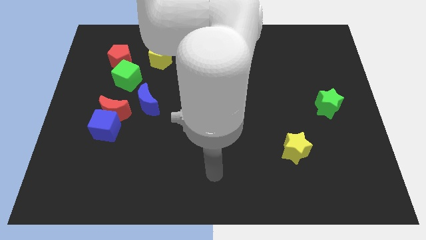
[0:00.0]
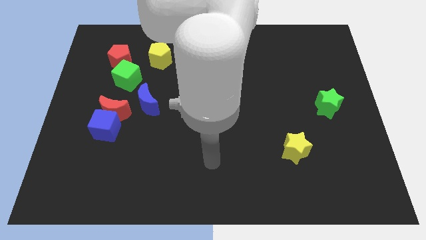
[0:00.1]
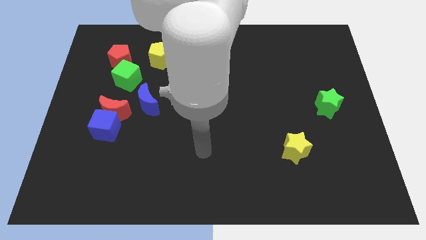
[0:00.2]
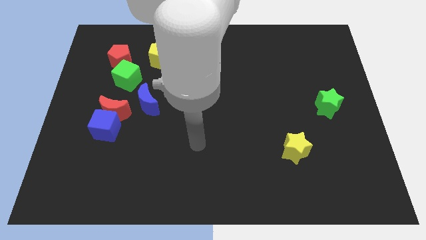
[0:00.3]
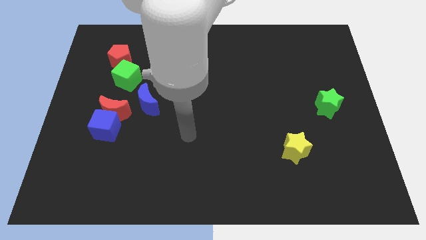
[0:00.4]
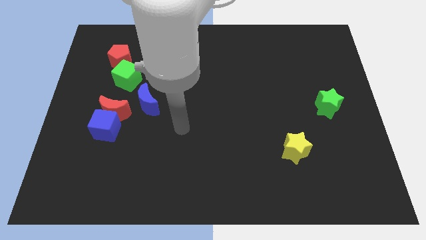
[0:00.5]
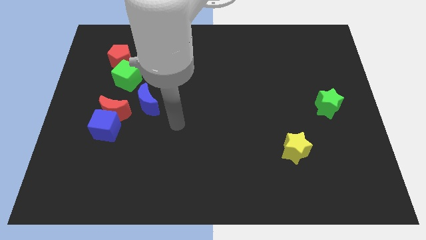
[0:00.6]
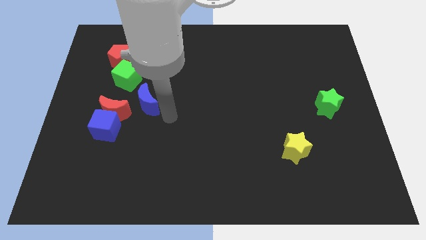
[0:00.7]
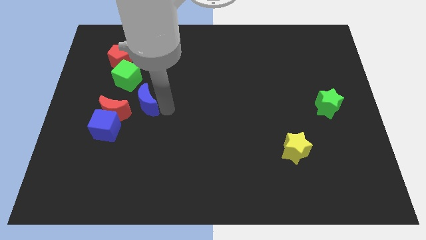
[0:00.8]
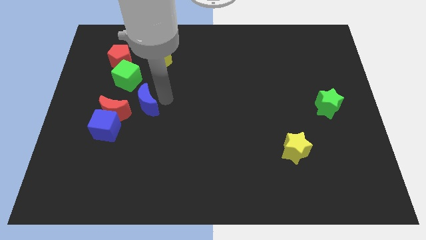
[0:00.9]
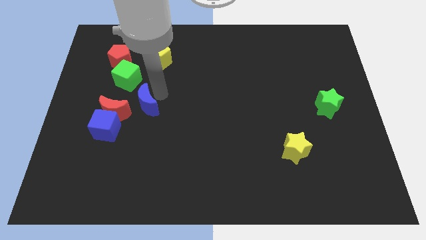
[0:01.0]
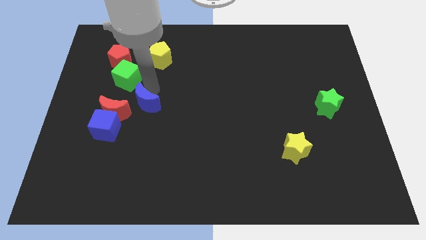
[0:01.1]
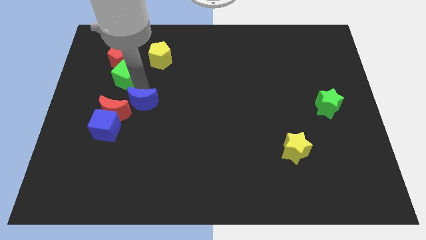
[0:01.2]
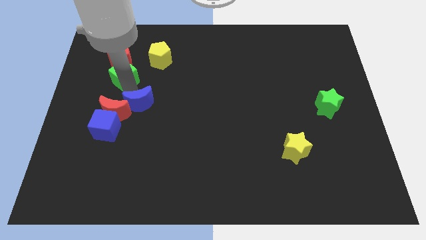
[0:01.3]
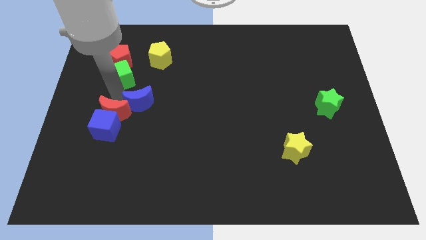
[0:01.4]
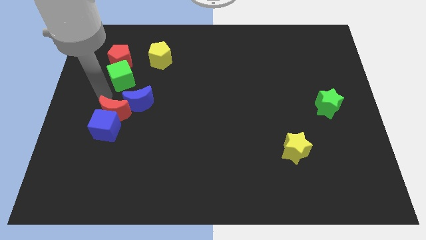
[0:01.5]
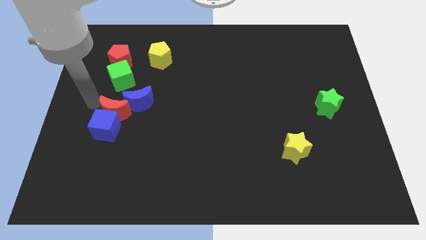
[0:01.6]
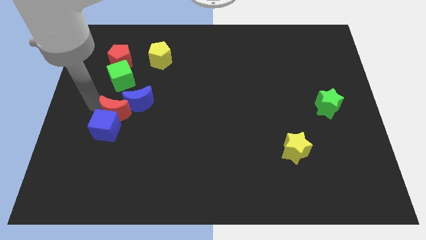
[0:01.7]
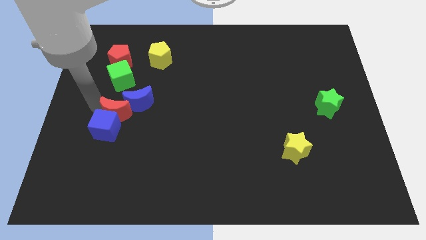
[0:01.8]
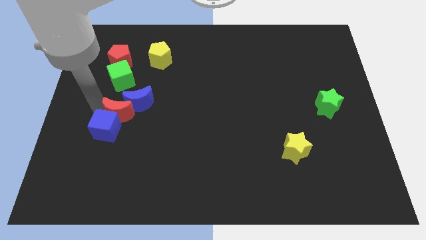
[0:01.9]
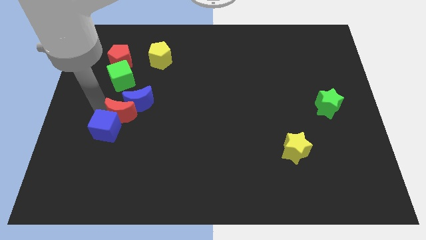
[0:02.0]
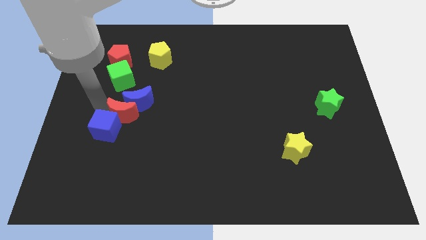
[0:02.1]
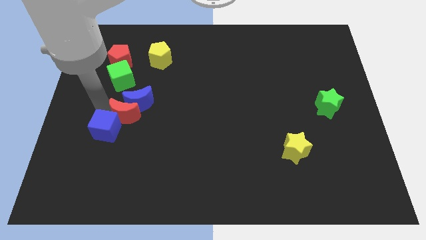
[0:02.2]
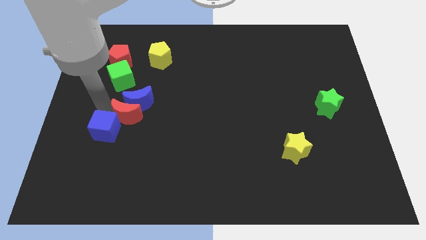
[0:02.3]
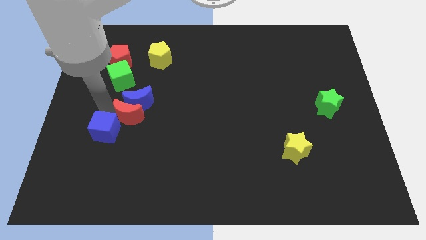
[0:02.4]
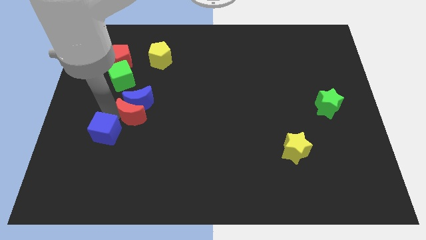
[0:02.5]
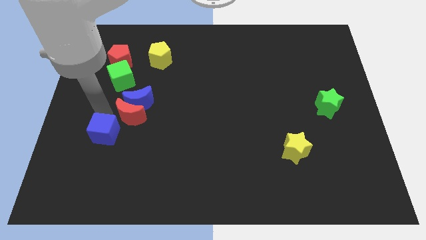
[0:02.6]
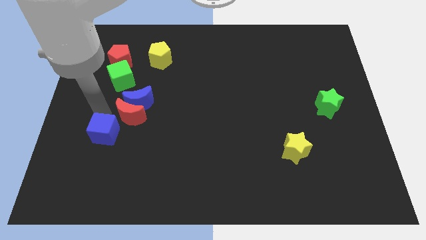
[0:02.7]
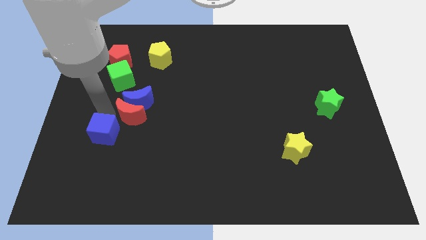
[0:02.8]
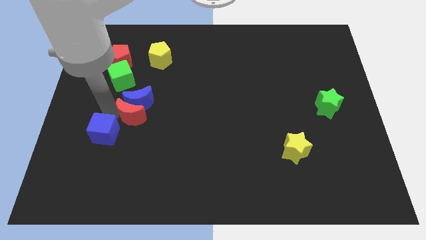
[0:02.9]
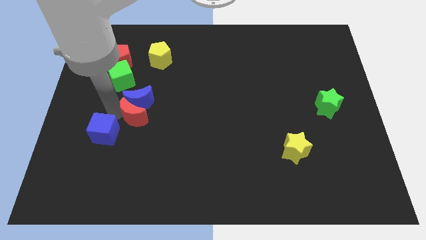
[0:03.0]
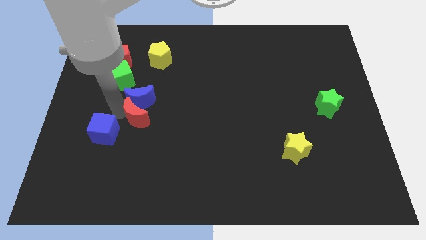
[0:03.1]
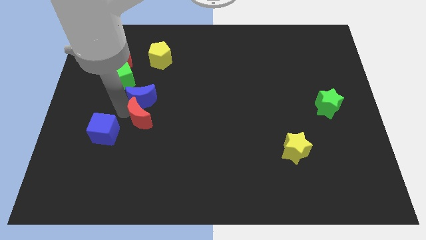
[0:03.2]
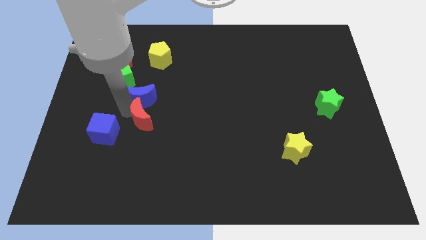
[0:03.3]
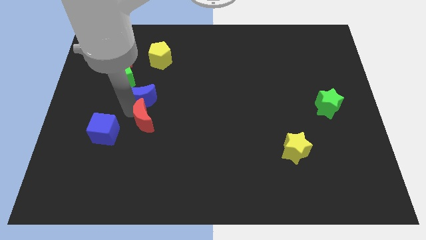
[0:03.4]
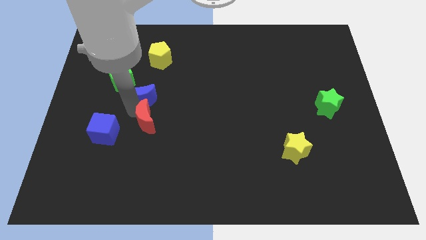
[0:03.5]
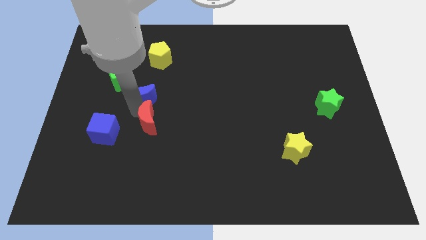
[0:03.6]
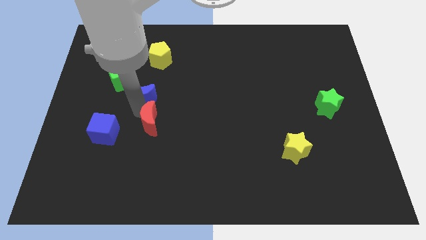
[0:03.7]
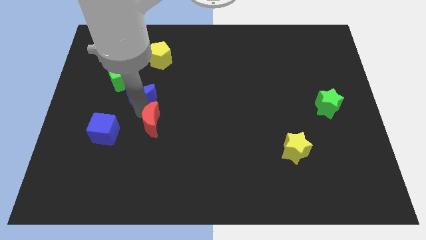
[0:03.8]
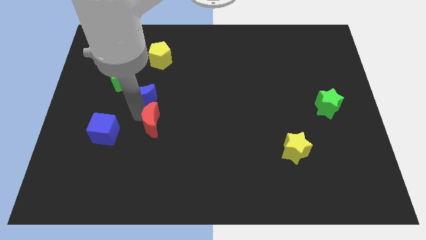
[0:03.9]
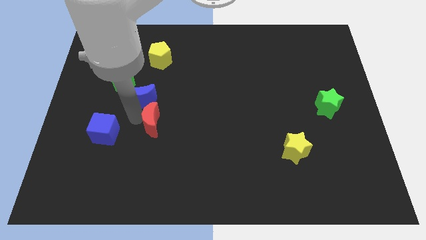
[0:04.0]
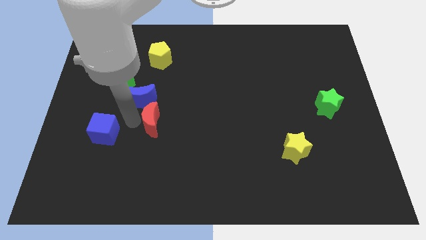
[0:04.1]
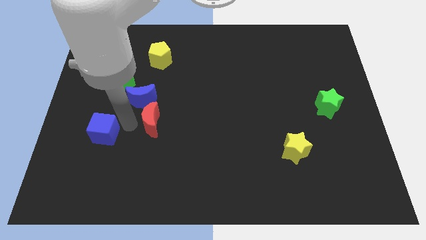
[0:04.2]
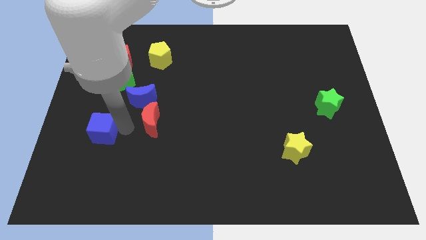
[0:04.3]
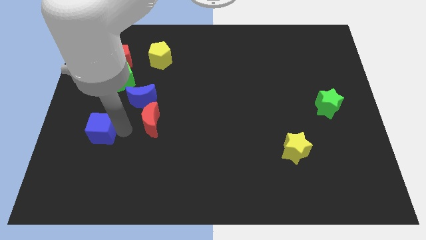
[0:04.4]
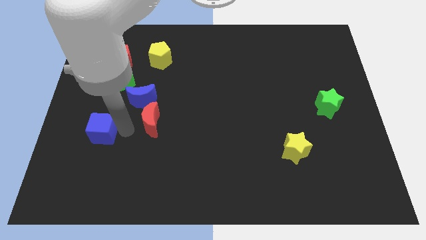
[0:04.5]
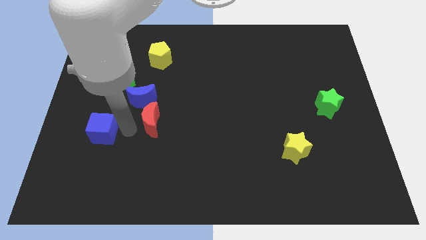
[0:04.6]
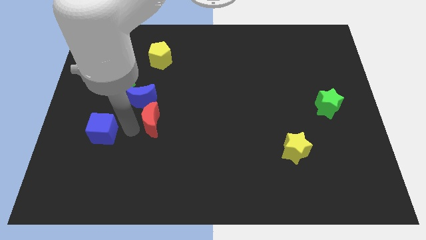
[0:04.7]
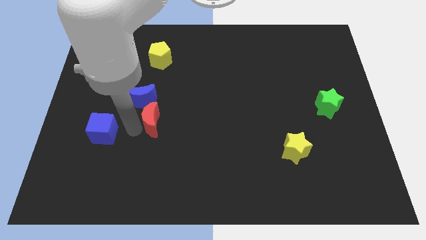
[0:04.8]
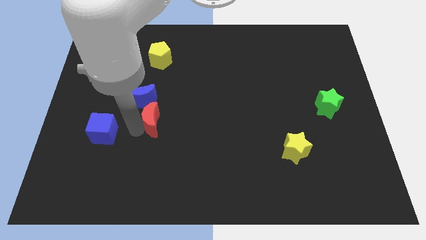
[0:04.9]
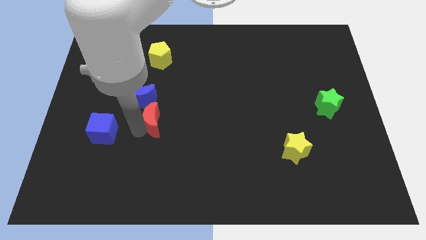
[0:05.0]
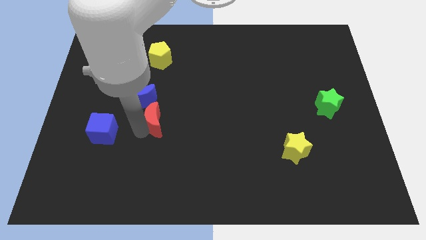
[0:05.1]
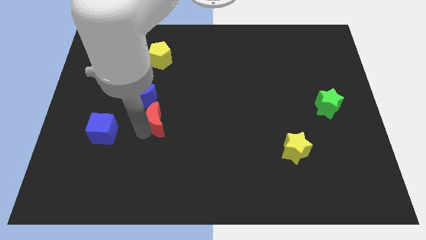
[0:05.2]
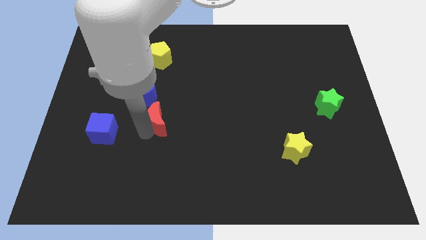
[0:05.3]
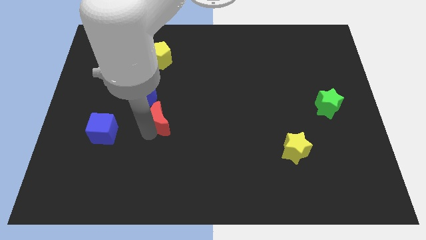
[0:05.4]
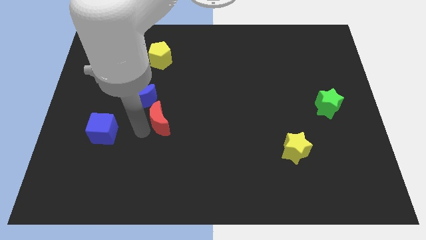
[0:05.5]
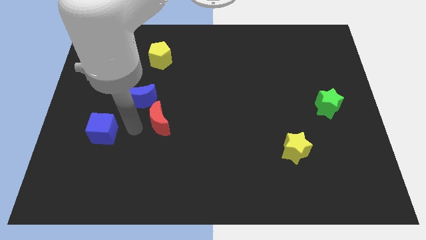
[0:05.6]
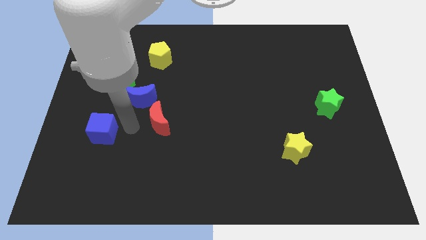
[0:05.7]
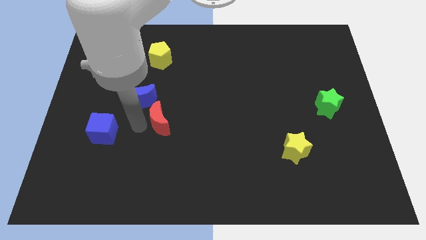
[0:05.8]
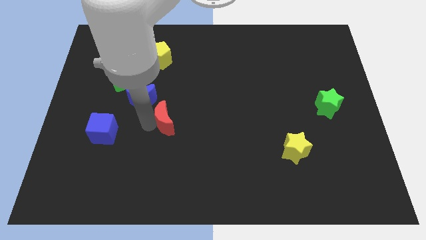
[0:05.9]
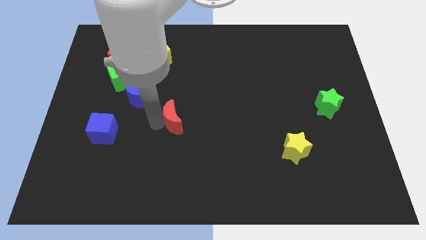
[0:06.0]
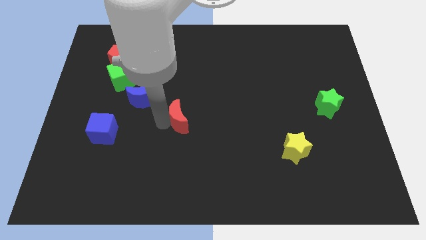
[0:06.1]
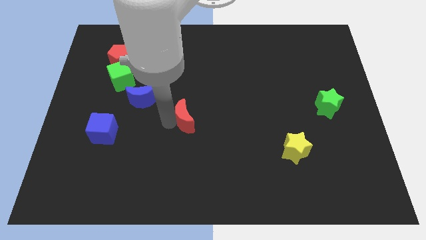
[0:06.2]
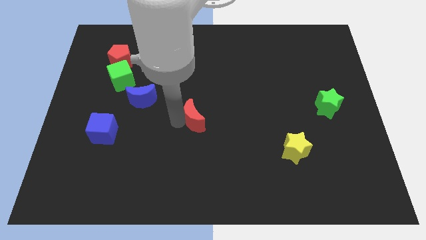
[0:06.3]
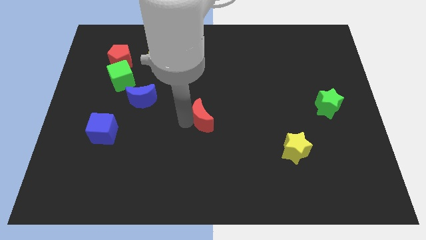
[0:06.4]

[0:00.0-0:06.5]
push the red moon right

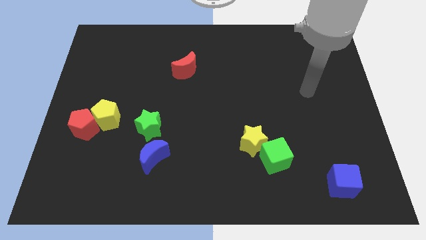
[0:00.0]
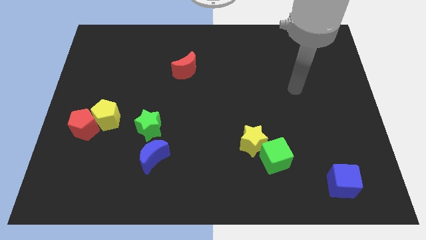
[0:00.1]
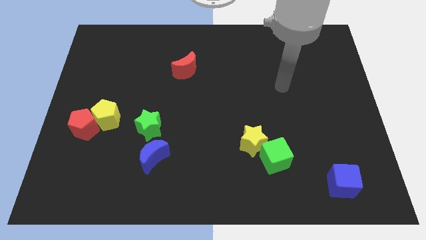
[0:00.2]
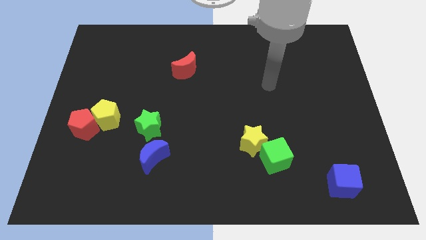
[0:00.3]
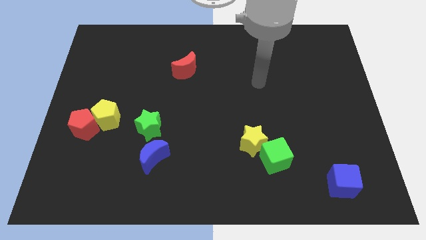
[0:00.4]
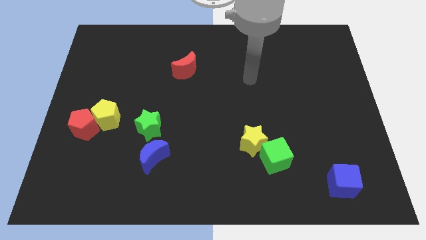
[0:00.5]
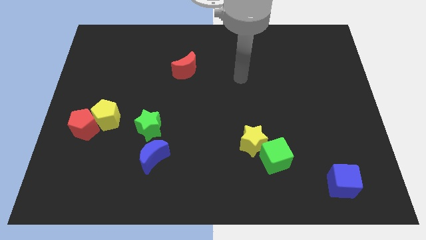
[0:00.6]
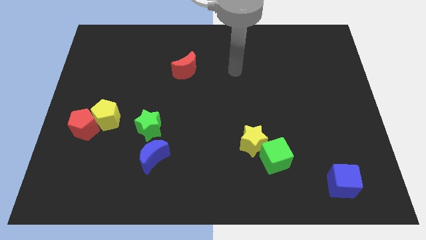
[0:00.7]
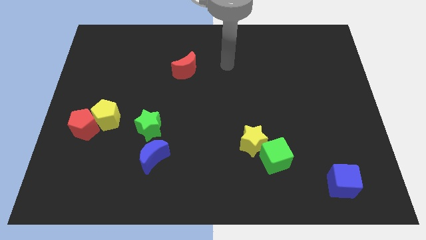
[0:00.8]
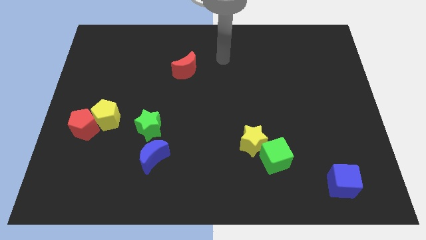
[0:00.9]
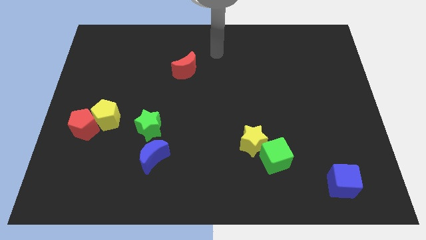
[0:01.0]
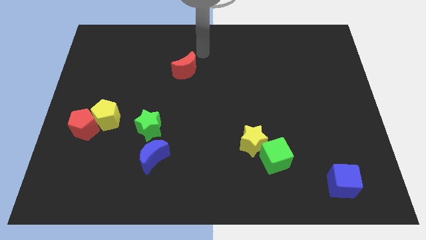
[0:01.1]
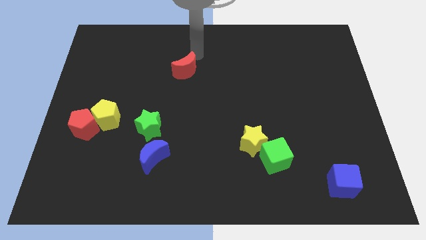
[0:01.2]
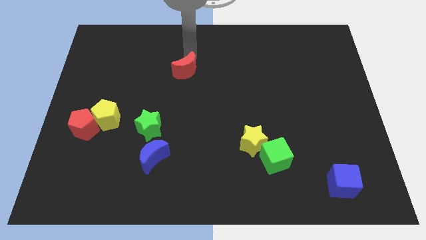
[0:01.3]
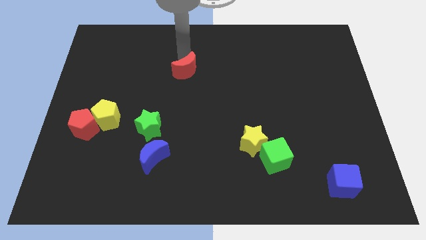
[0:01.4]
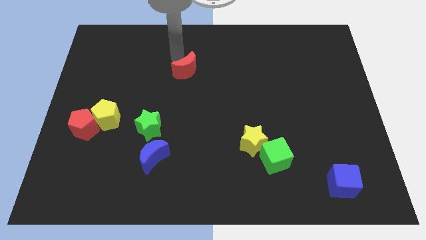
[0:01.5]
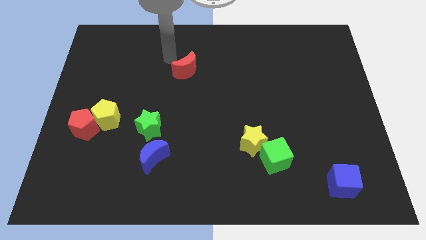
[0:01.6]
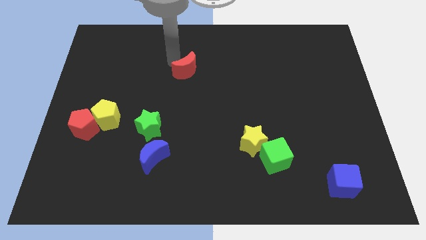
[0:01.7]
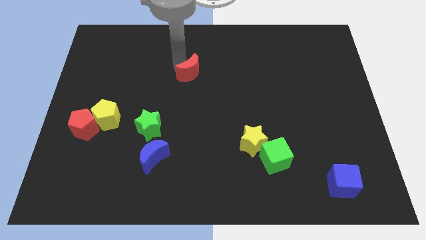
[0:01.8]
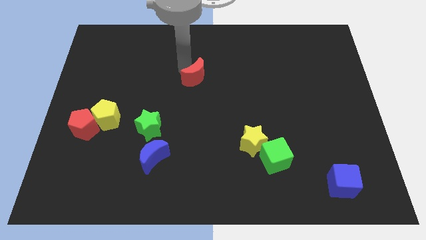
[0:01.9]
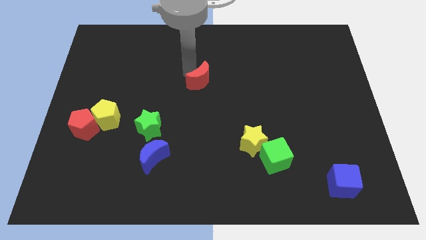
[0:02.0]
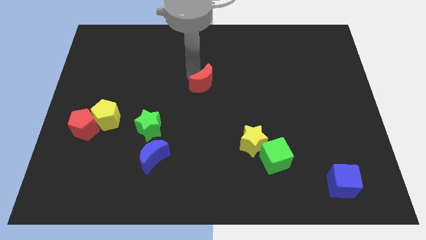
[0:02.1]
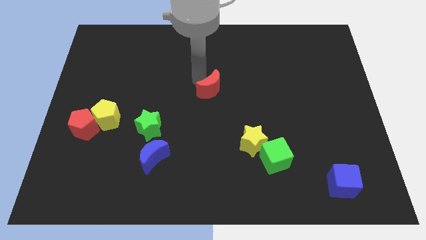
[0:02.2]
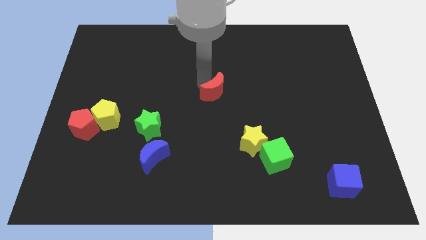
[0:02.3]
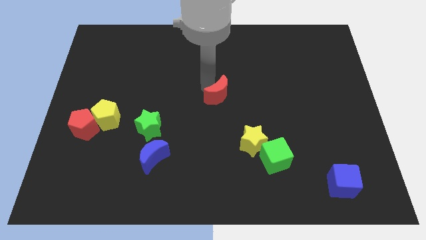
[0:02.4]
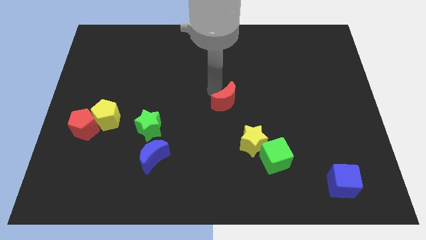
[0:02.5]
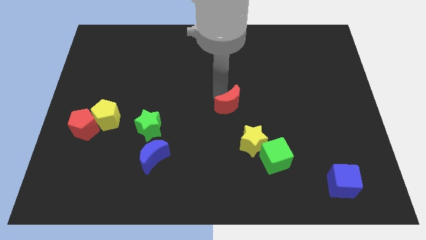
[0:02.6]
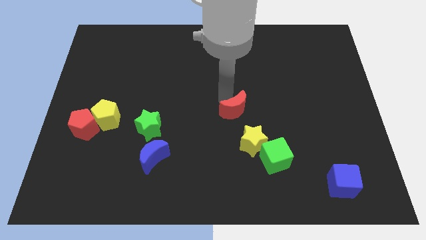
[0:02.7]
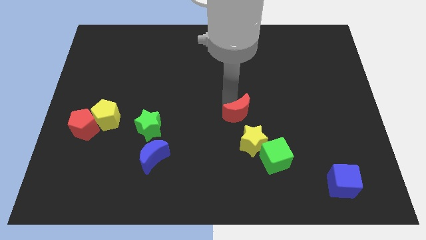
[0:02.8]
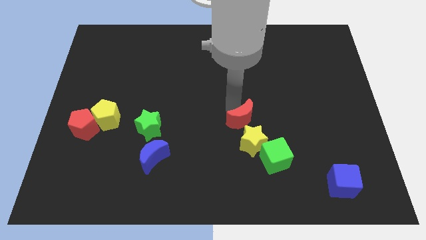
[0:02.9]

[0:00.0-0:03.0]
push the red moon down and to the right diagonally
